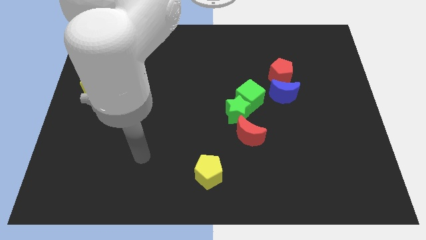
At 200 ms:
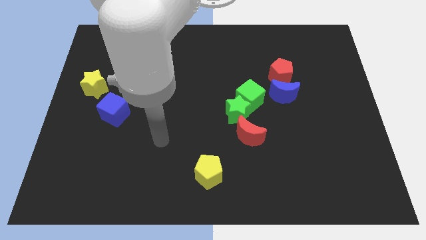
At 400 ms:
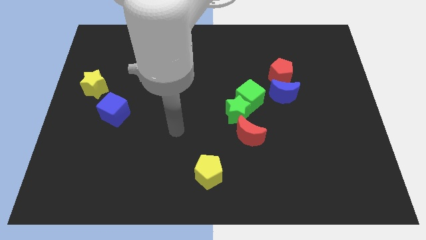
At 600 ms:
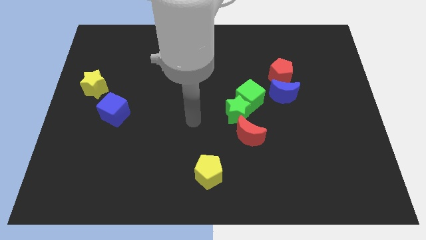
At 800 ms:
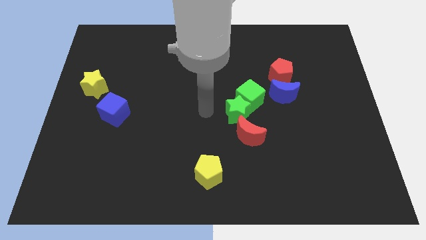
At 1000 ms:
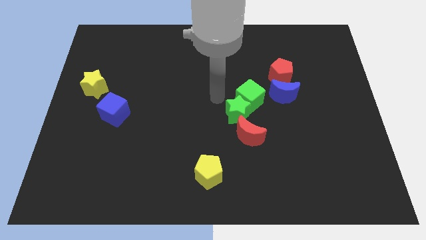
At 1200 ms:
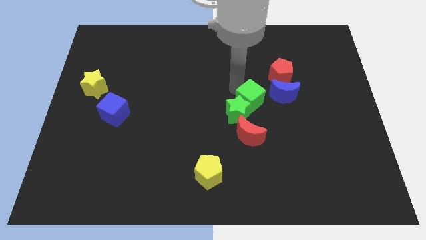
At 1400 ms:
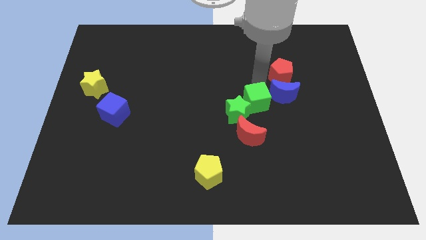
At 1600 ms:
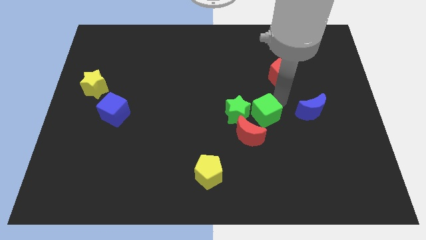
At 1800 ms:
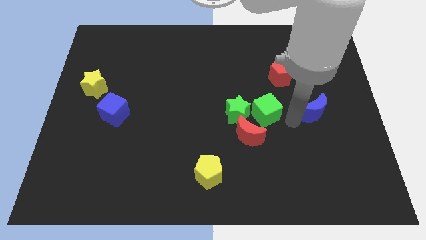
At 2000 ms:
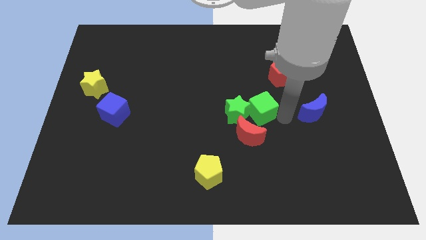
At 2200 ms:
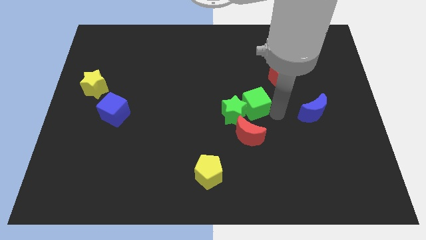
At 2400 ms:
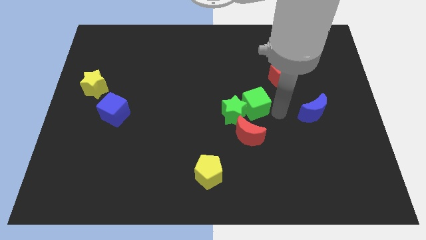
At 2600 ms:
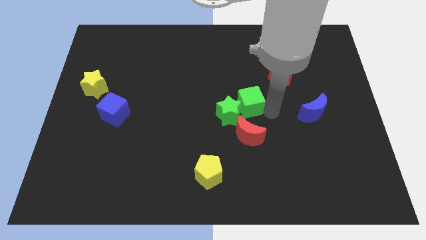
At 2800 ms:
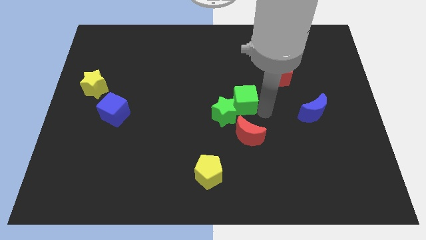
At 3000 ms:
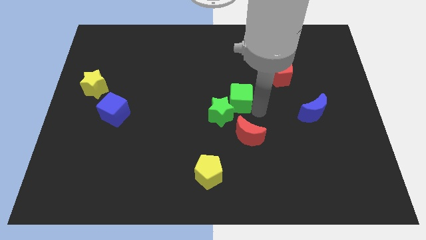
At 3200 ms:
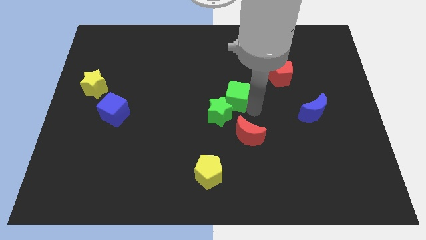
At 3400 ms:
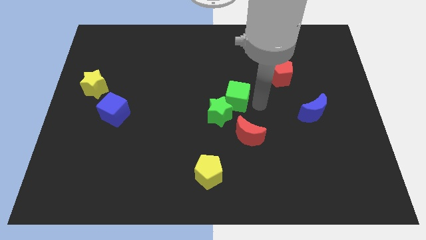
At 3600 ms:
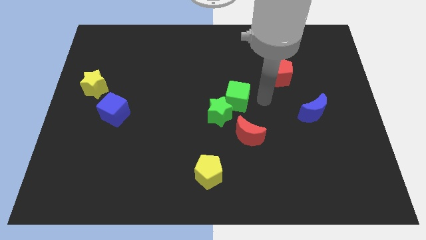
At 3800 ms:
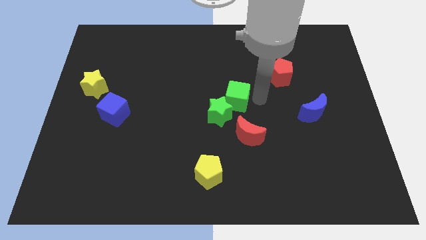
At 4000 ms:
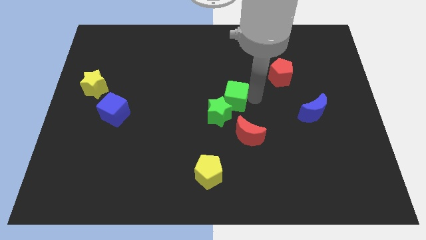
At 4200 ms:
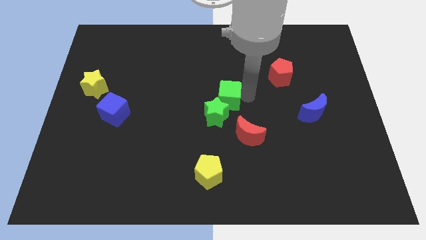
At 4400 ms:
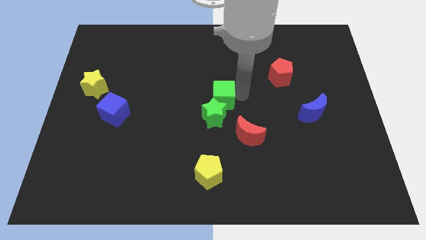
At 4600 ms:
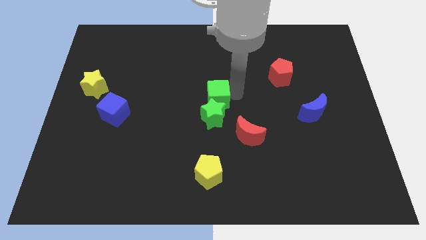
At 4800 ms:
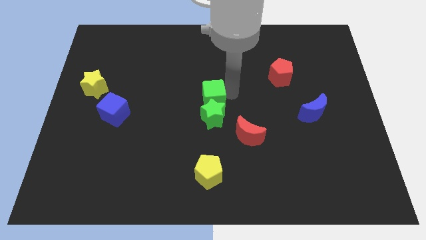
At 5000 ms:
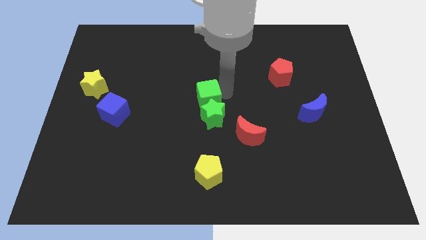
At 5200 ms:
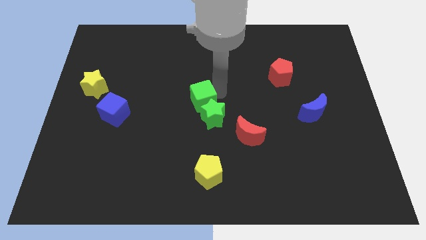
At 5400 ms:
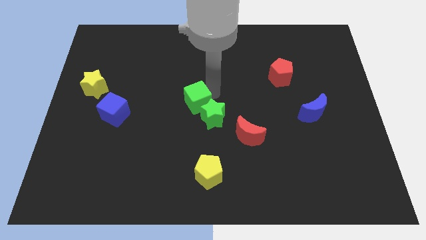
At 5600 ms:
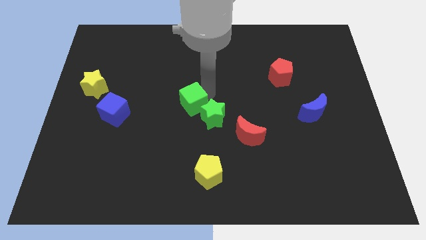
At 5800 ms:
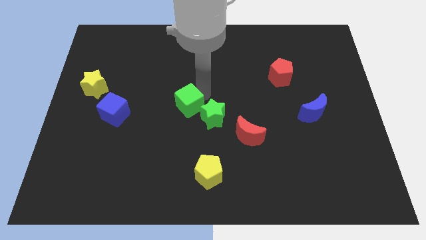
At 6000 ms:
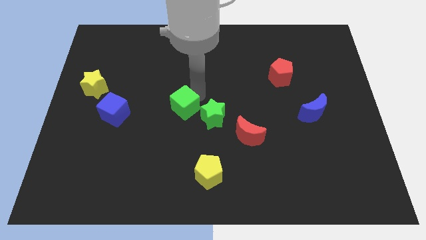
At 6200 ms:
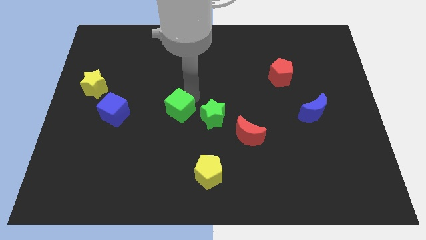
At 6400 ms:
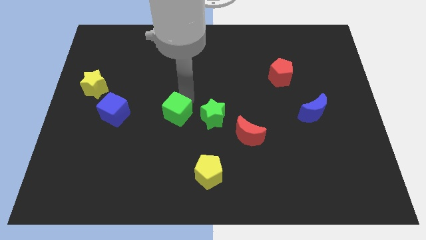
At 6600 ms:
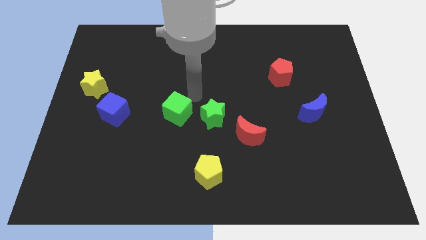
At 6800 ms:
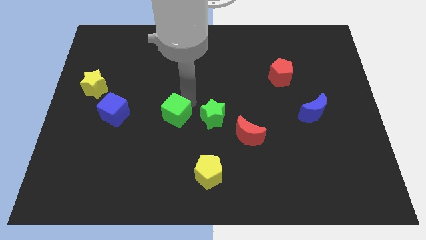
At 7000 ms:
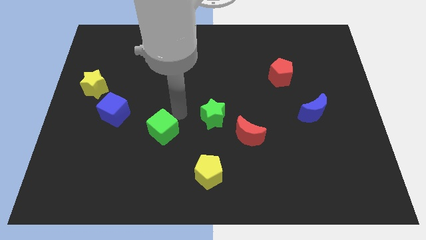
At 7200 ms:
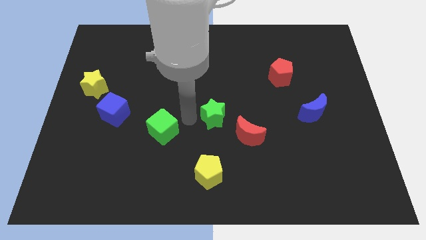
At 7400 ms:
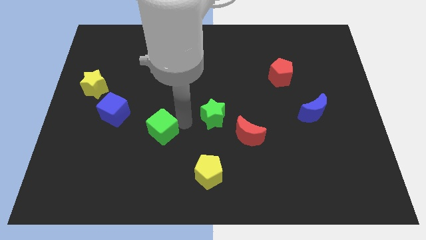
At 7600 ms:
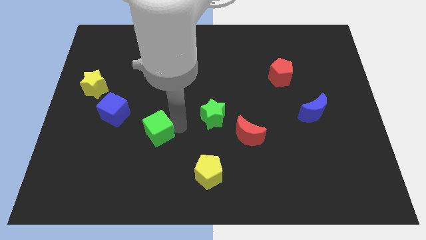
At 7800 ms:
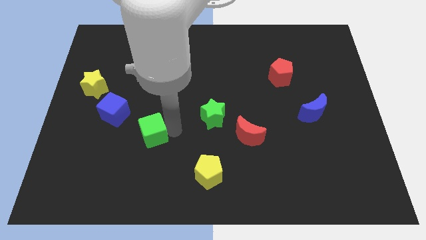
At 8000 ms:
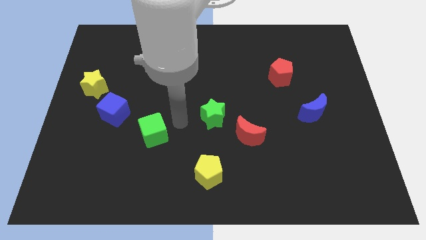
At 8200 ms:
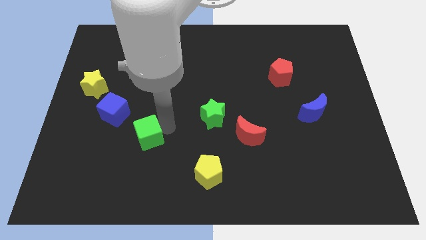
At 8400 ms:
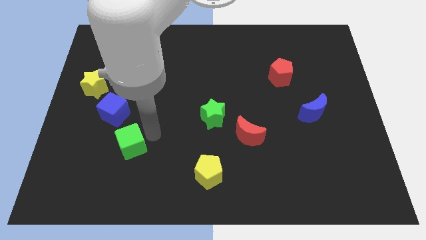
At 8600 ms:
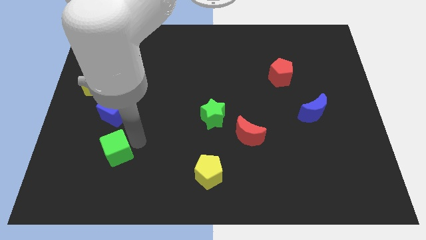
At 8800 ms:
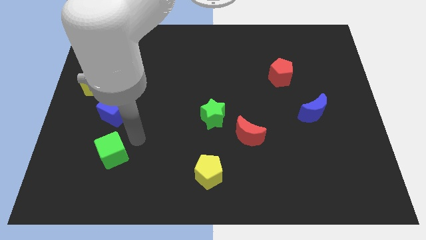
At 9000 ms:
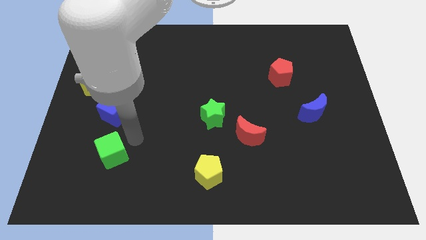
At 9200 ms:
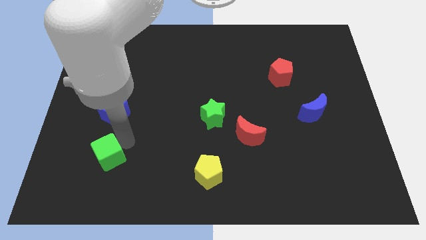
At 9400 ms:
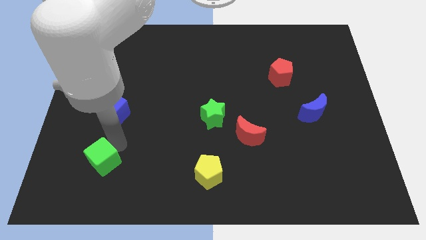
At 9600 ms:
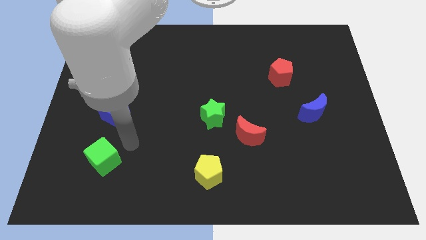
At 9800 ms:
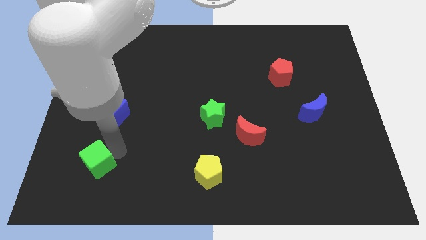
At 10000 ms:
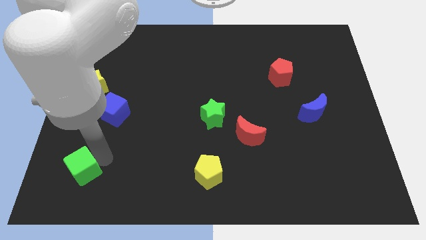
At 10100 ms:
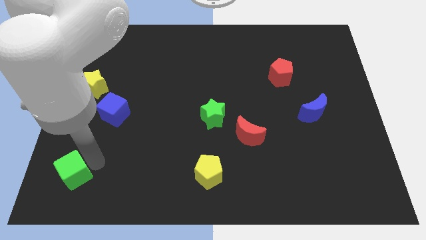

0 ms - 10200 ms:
move the green cube to the bottom left corner

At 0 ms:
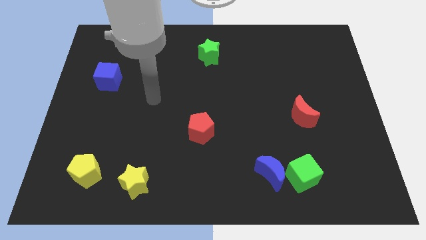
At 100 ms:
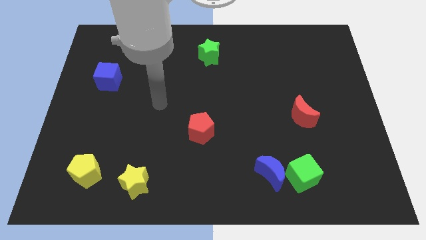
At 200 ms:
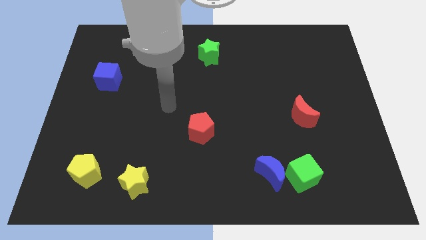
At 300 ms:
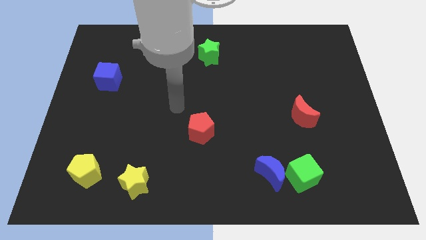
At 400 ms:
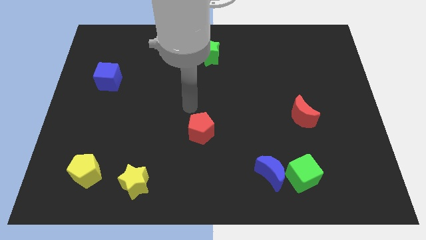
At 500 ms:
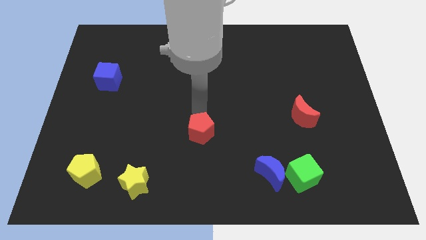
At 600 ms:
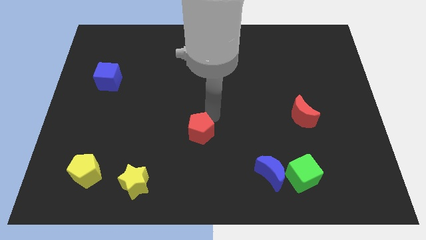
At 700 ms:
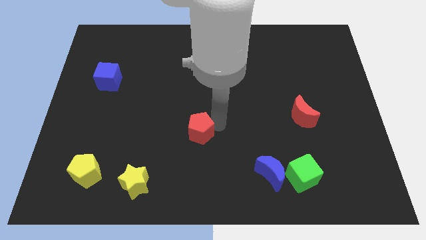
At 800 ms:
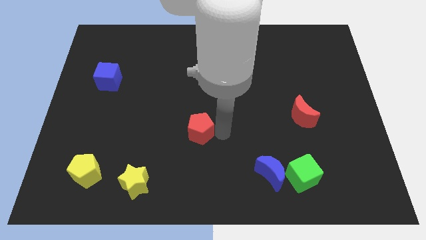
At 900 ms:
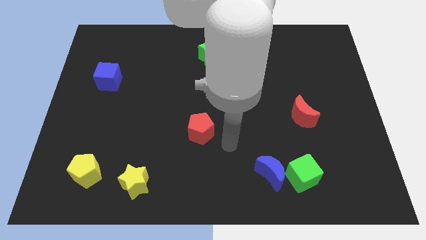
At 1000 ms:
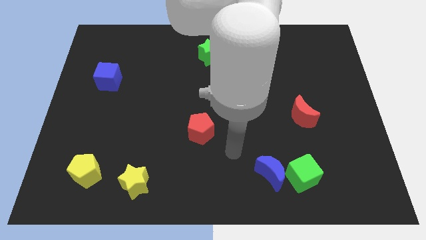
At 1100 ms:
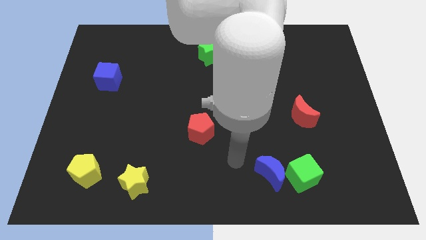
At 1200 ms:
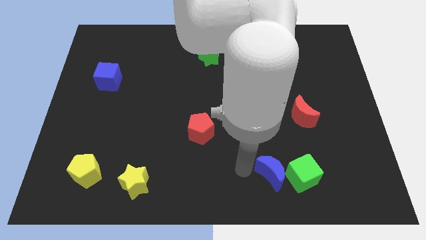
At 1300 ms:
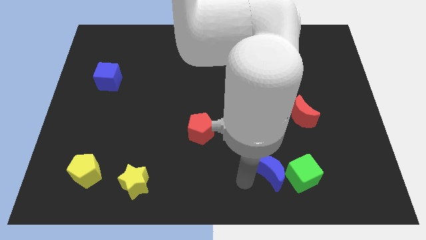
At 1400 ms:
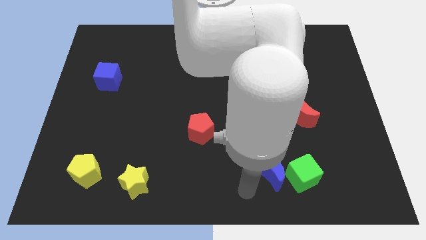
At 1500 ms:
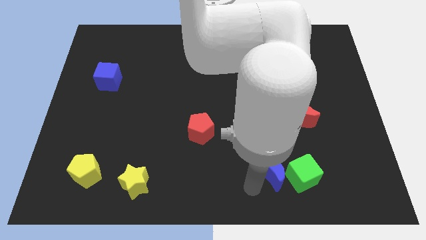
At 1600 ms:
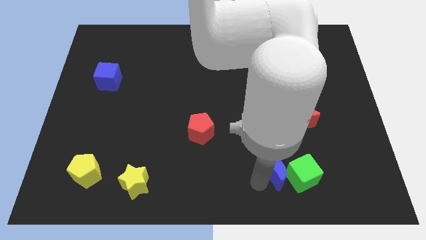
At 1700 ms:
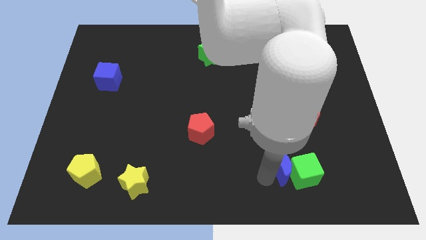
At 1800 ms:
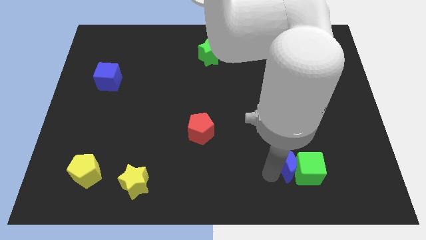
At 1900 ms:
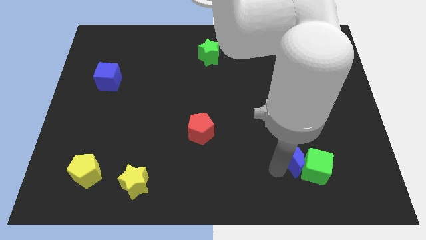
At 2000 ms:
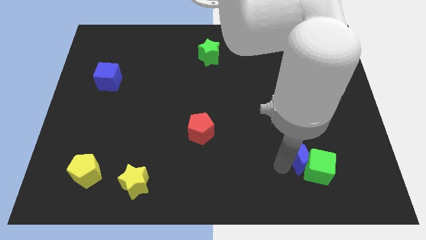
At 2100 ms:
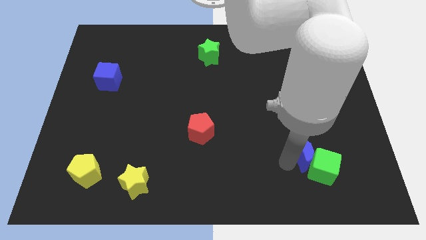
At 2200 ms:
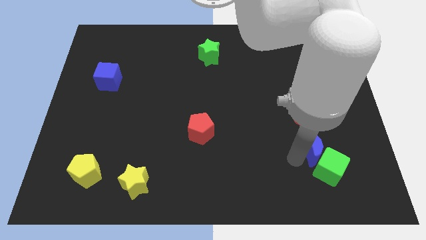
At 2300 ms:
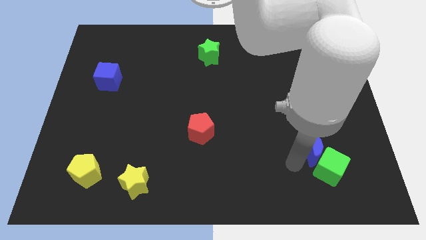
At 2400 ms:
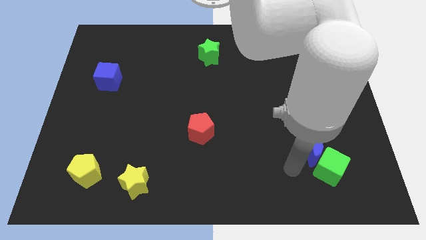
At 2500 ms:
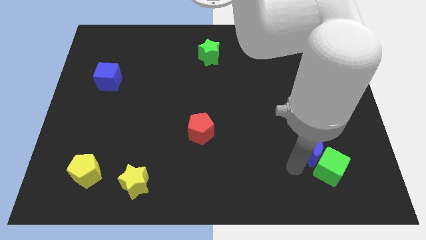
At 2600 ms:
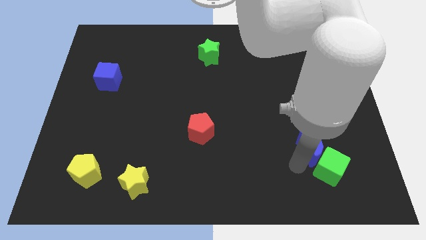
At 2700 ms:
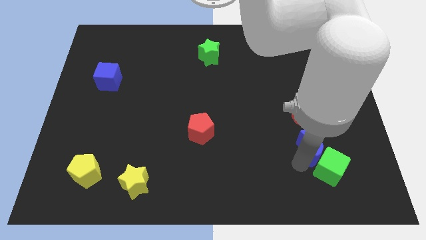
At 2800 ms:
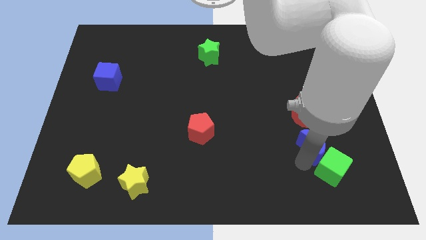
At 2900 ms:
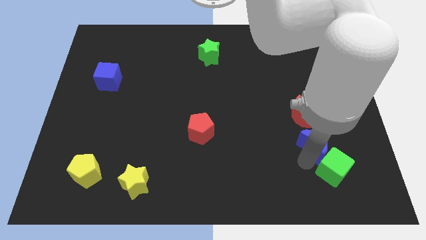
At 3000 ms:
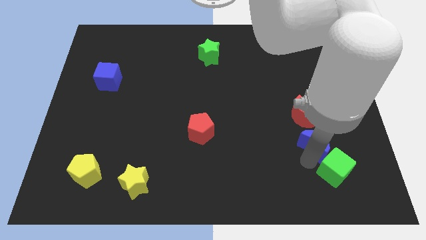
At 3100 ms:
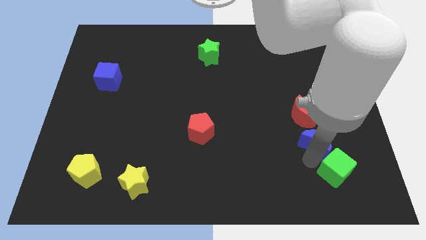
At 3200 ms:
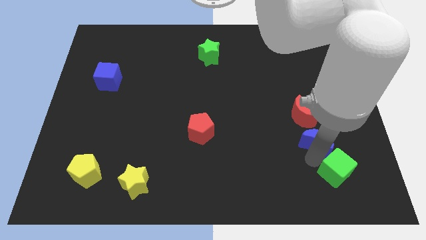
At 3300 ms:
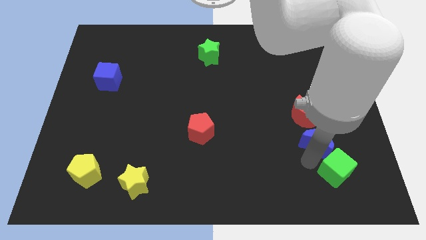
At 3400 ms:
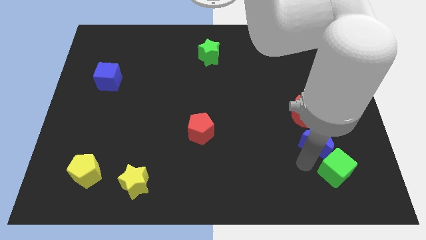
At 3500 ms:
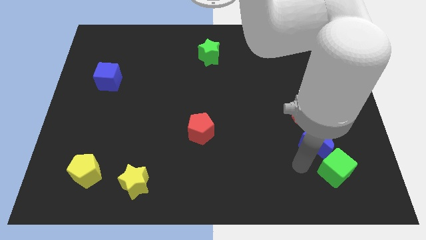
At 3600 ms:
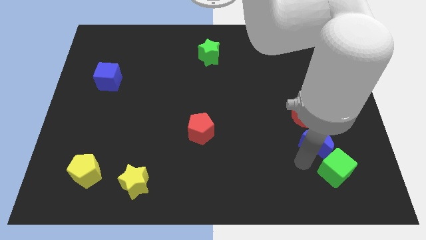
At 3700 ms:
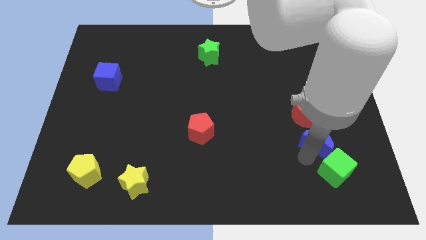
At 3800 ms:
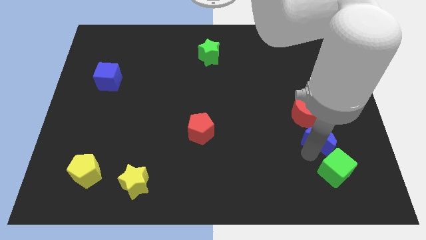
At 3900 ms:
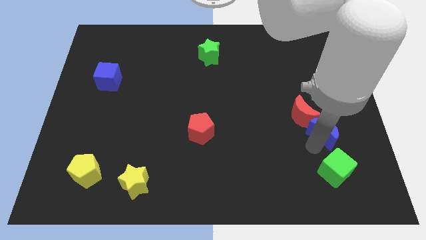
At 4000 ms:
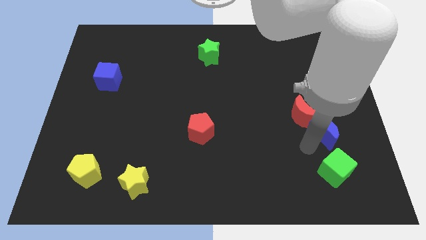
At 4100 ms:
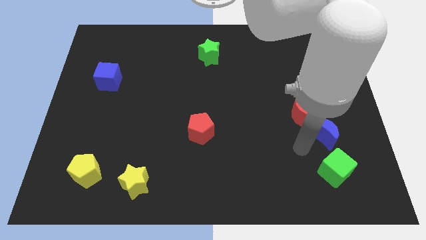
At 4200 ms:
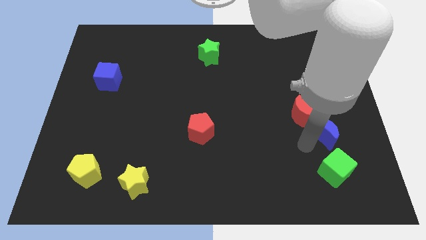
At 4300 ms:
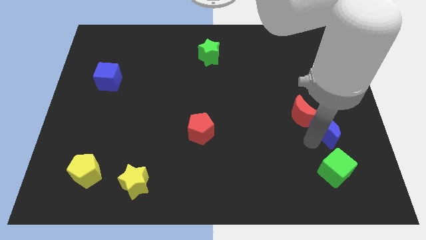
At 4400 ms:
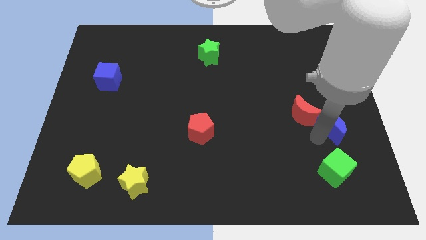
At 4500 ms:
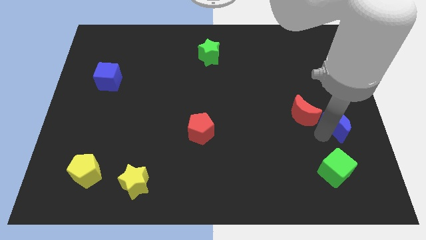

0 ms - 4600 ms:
put the blue moon to the right side
